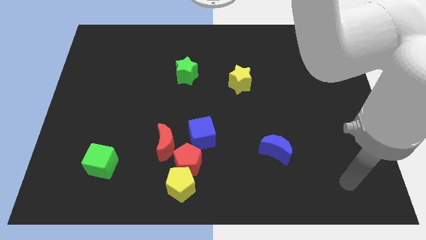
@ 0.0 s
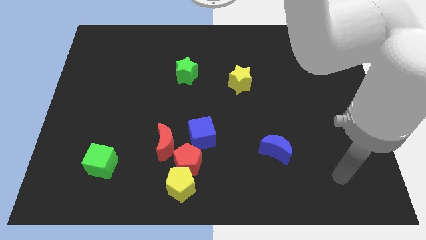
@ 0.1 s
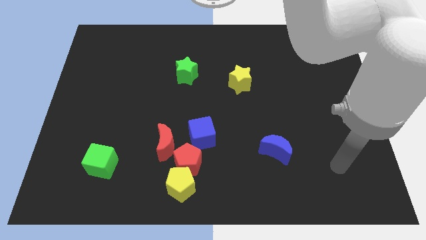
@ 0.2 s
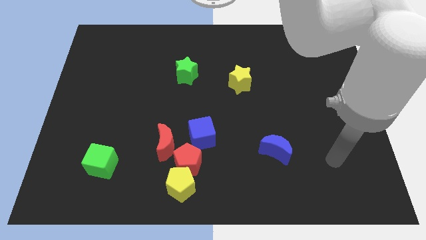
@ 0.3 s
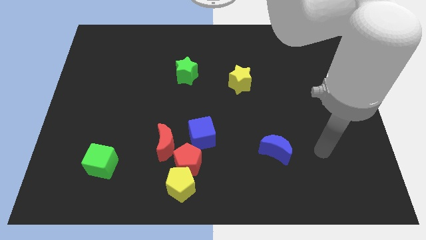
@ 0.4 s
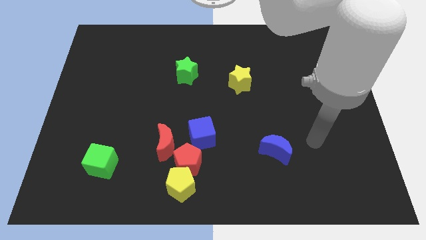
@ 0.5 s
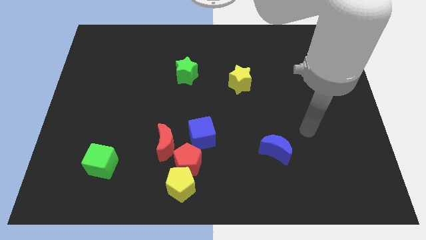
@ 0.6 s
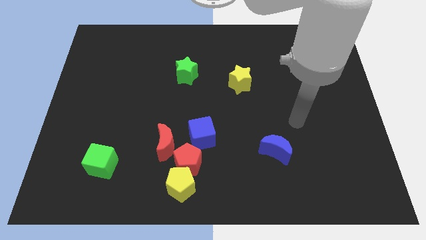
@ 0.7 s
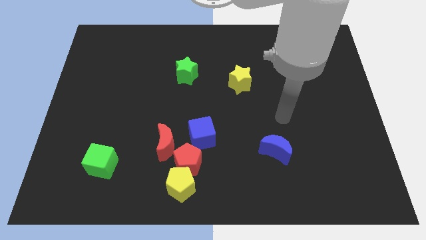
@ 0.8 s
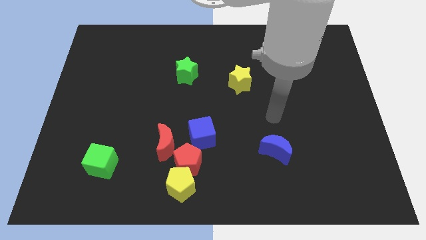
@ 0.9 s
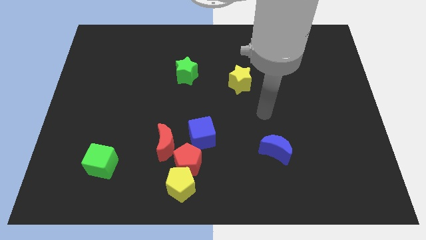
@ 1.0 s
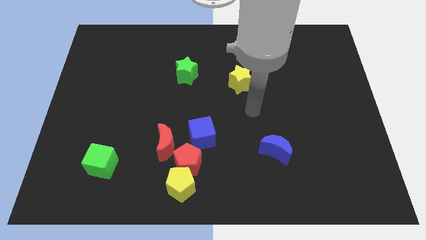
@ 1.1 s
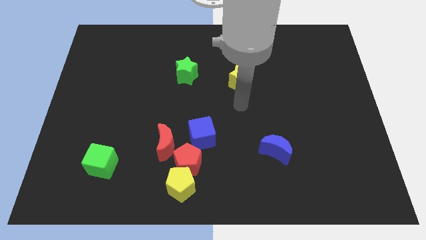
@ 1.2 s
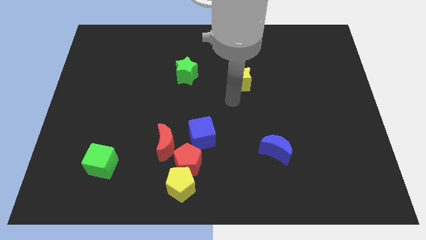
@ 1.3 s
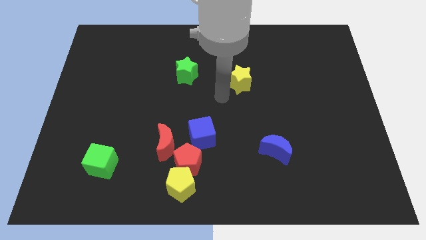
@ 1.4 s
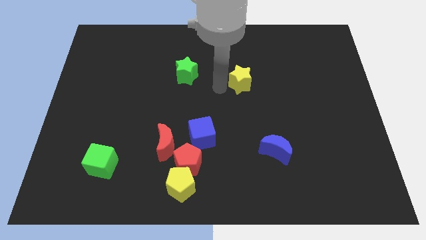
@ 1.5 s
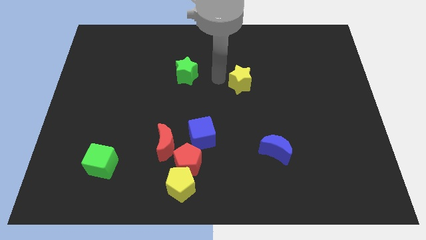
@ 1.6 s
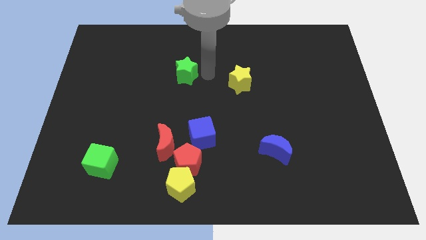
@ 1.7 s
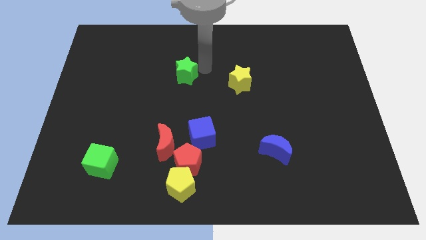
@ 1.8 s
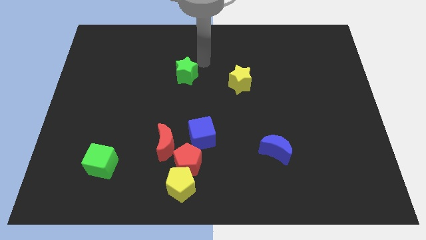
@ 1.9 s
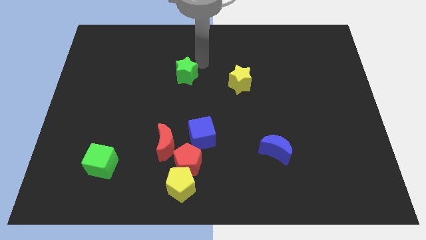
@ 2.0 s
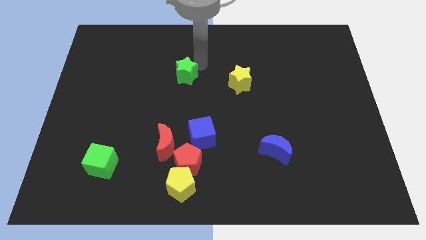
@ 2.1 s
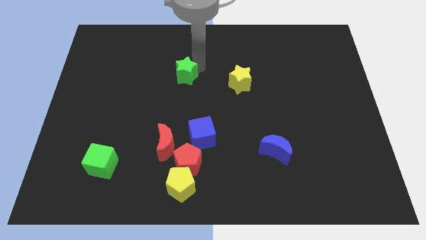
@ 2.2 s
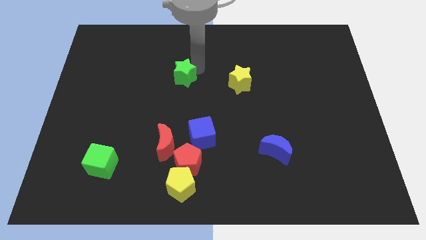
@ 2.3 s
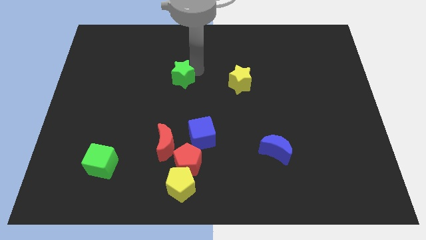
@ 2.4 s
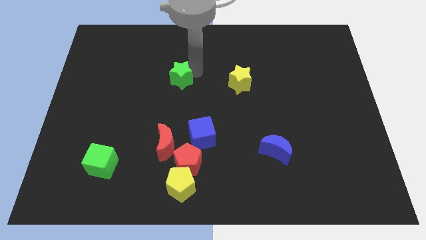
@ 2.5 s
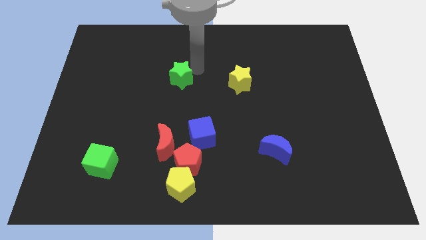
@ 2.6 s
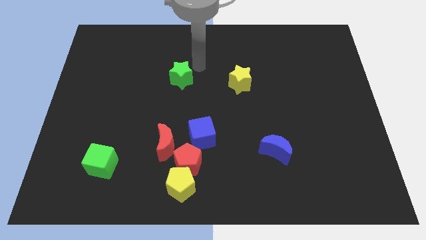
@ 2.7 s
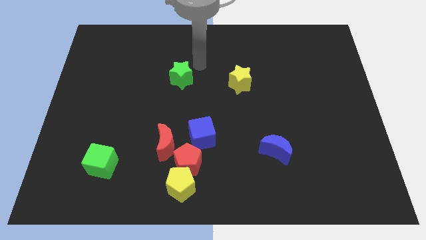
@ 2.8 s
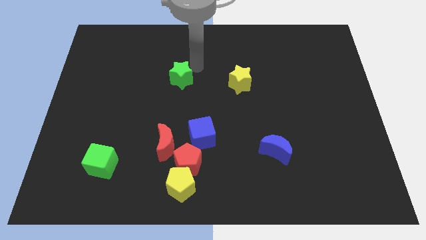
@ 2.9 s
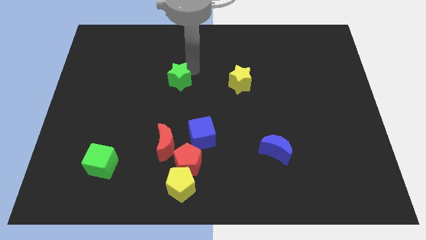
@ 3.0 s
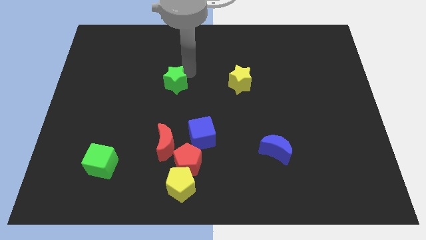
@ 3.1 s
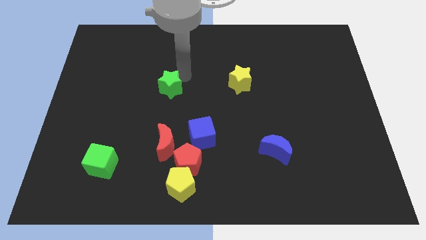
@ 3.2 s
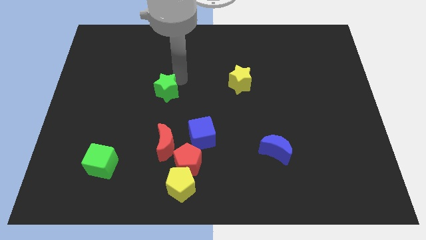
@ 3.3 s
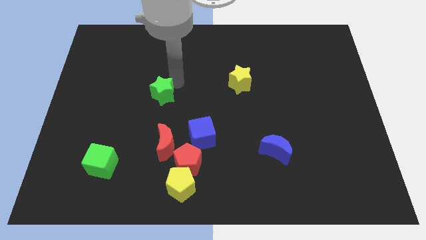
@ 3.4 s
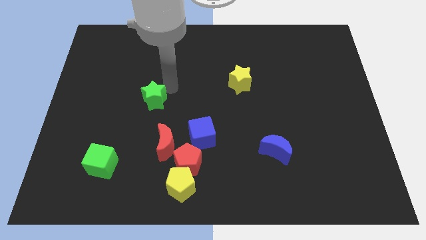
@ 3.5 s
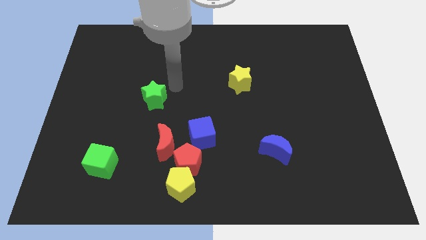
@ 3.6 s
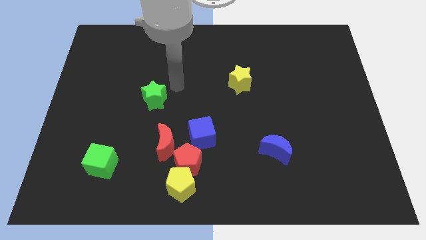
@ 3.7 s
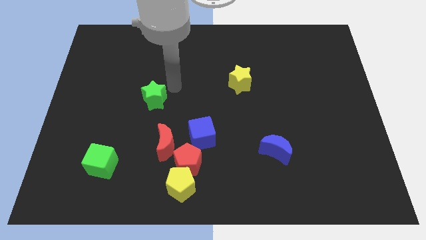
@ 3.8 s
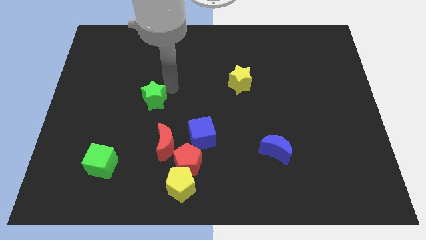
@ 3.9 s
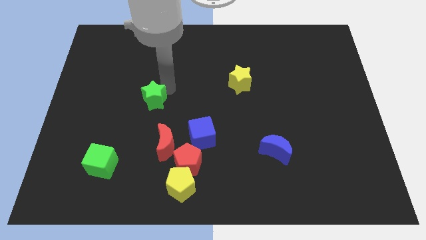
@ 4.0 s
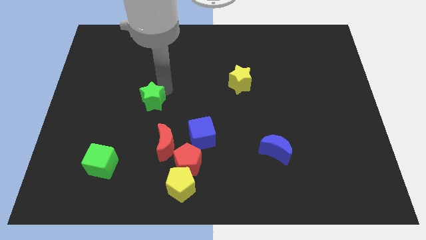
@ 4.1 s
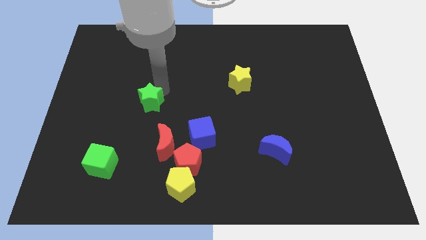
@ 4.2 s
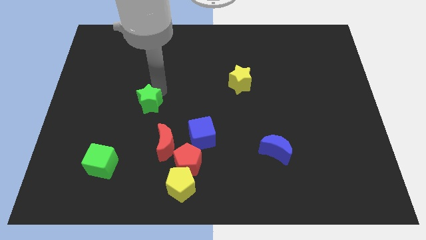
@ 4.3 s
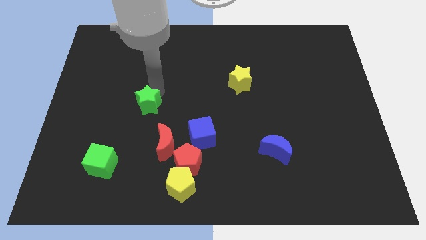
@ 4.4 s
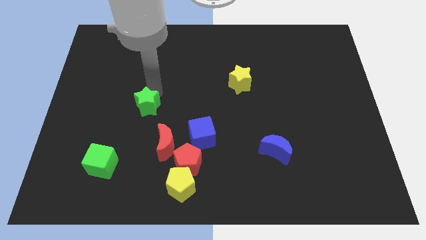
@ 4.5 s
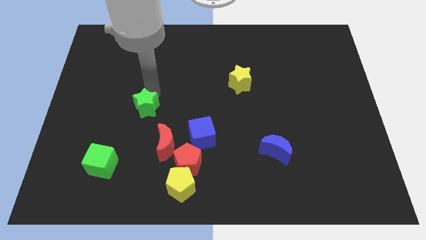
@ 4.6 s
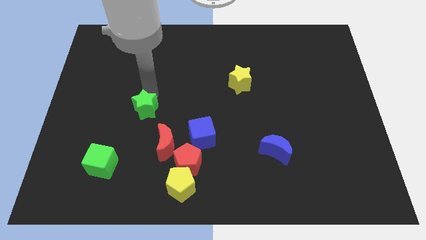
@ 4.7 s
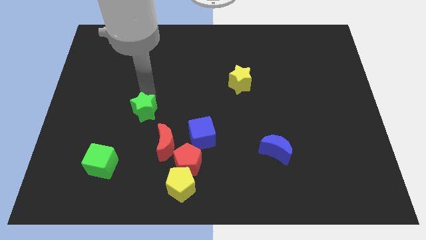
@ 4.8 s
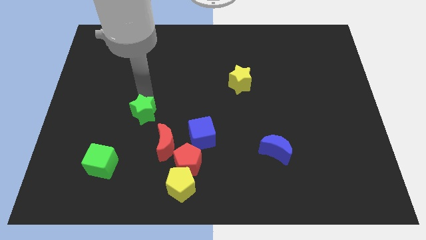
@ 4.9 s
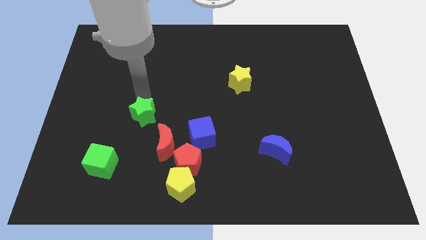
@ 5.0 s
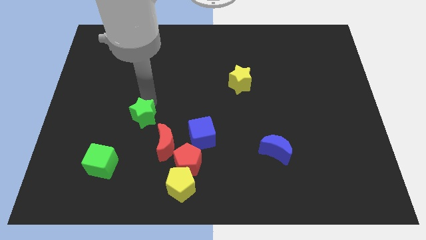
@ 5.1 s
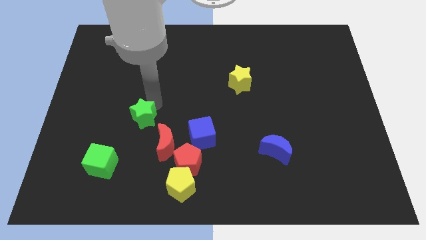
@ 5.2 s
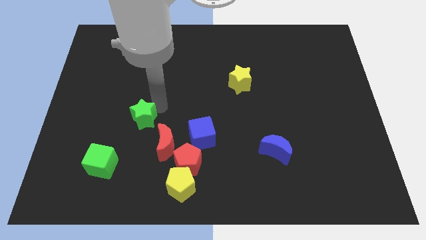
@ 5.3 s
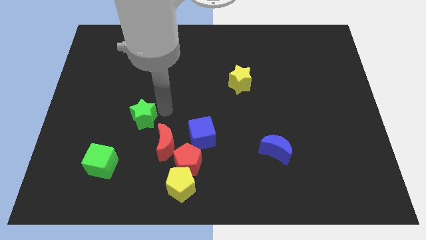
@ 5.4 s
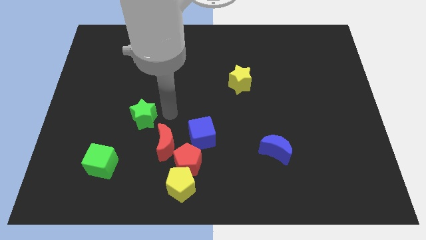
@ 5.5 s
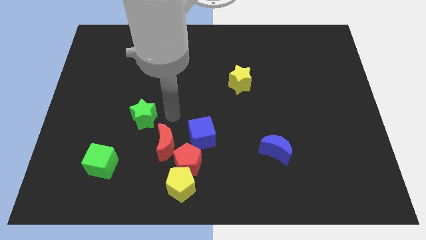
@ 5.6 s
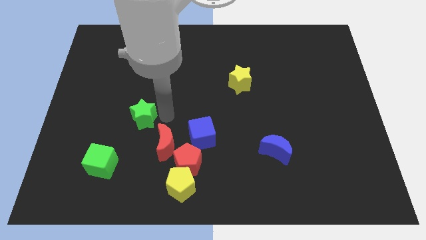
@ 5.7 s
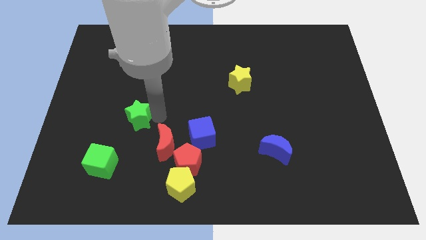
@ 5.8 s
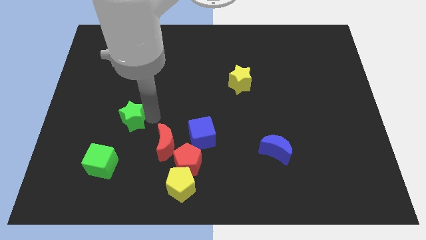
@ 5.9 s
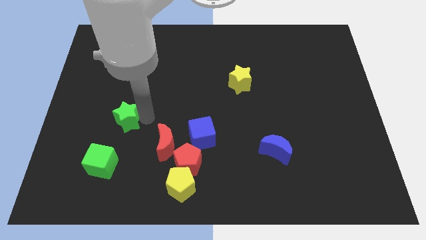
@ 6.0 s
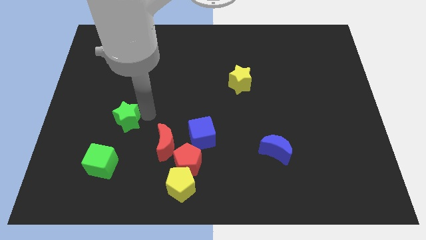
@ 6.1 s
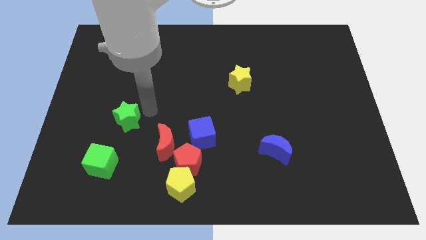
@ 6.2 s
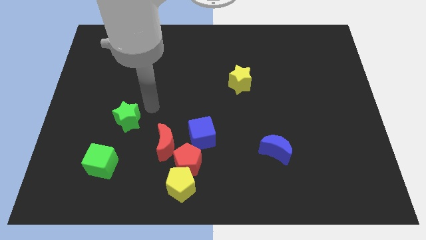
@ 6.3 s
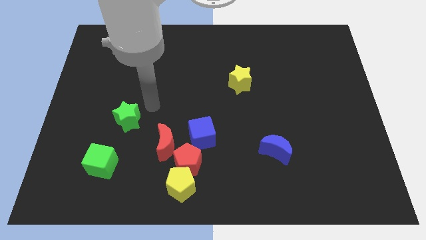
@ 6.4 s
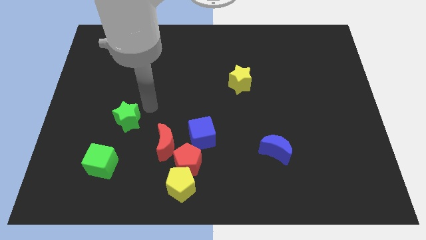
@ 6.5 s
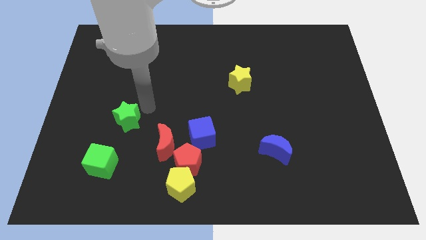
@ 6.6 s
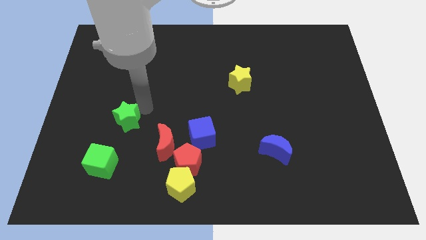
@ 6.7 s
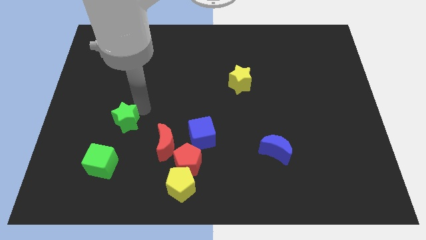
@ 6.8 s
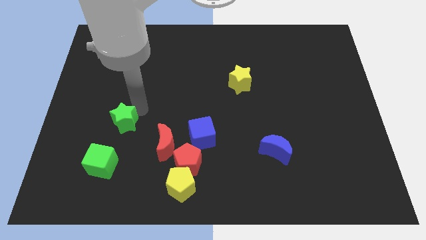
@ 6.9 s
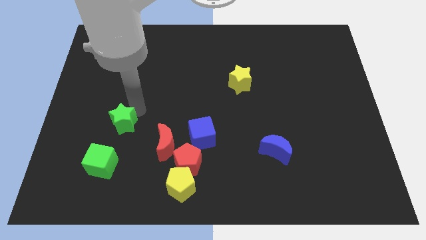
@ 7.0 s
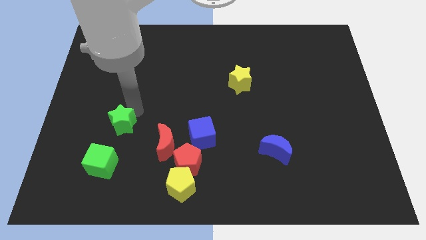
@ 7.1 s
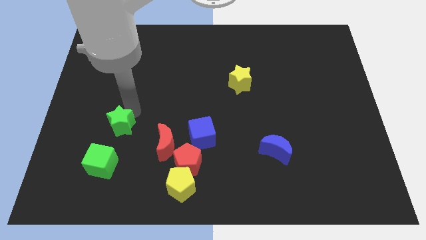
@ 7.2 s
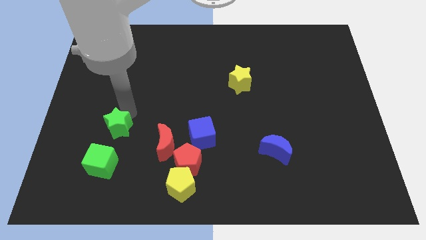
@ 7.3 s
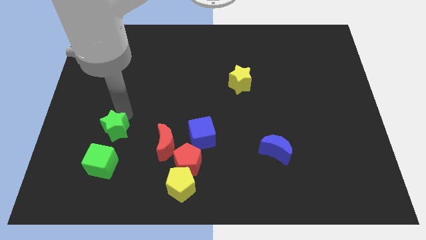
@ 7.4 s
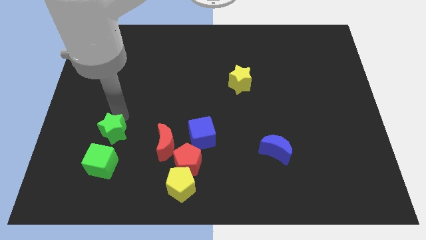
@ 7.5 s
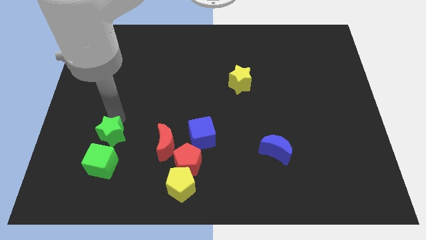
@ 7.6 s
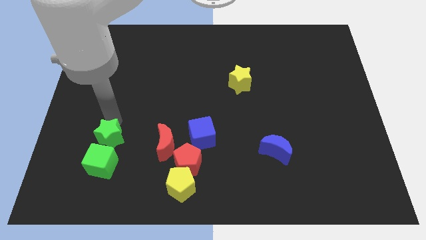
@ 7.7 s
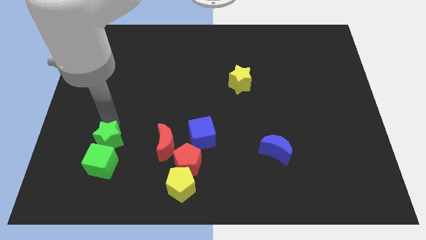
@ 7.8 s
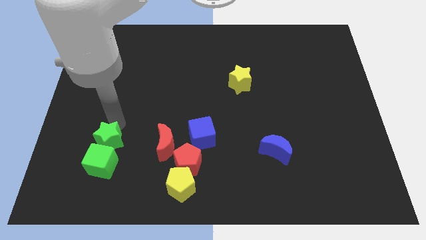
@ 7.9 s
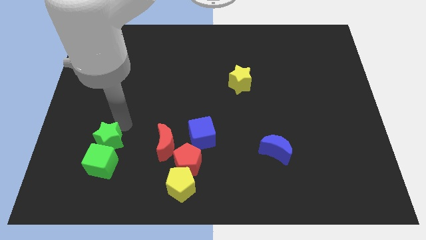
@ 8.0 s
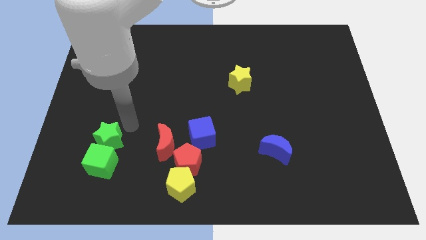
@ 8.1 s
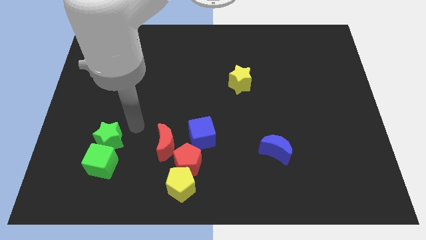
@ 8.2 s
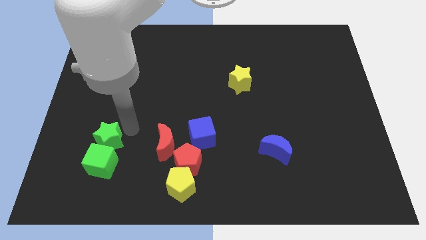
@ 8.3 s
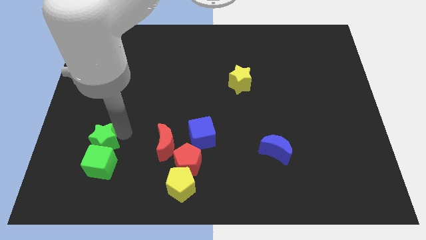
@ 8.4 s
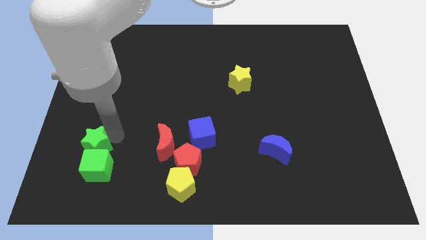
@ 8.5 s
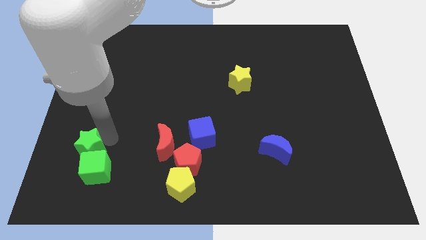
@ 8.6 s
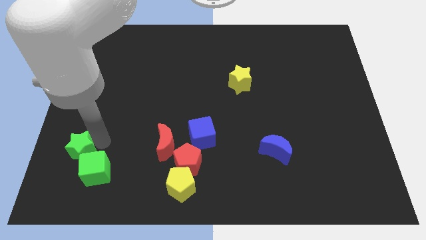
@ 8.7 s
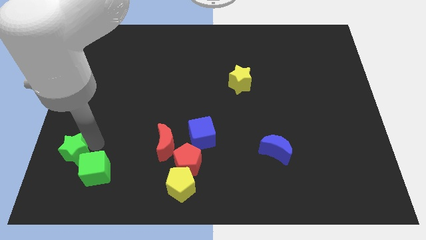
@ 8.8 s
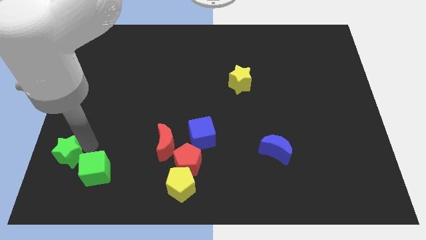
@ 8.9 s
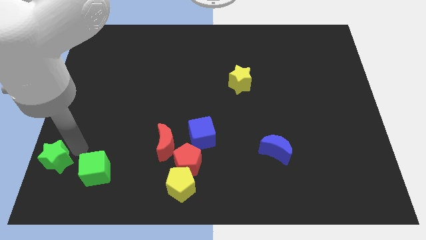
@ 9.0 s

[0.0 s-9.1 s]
move the green star to the bottom left of the board
